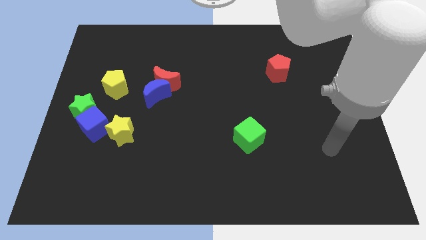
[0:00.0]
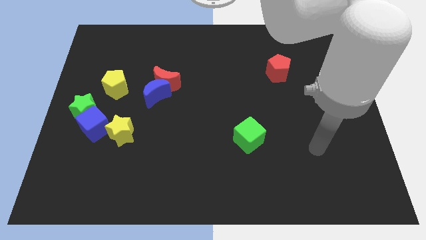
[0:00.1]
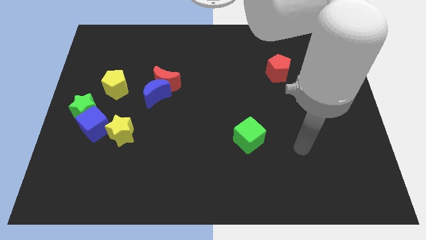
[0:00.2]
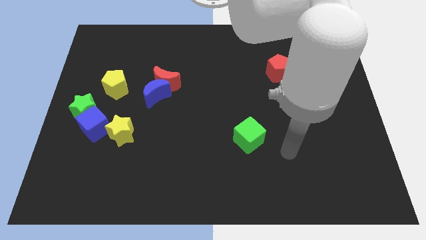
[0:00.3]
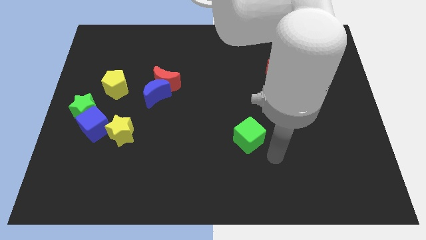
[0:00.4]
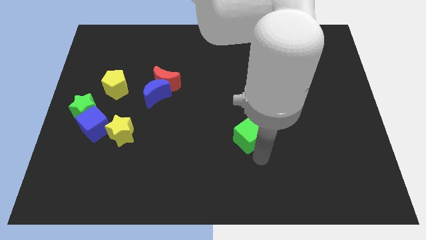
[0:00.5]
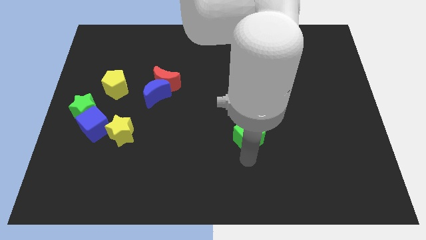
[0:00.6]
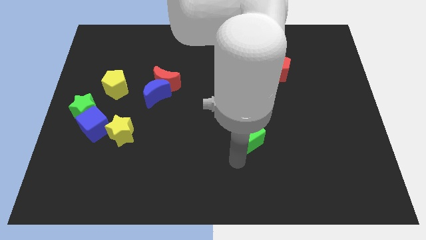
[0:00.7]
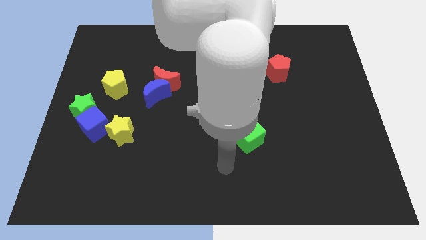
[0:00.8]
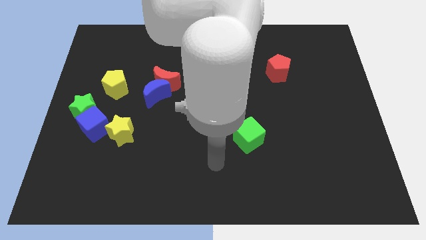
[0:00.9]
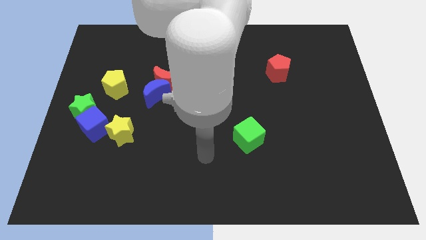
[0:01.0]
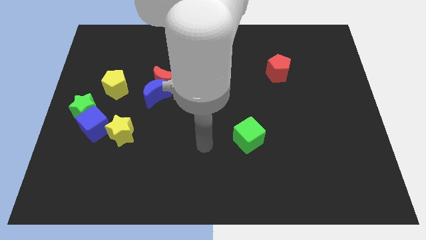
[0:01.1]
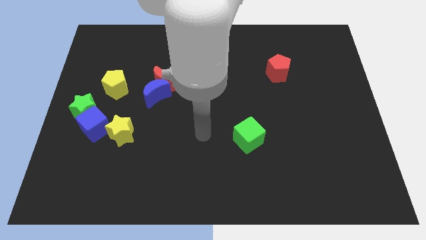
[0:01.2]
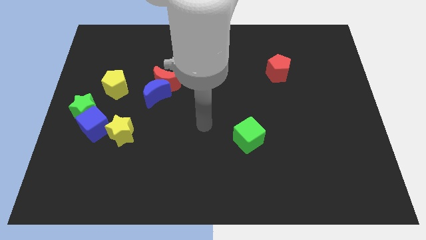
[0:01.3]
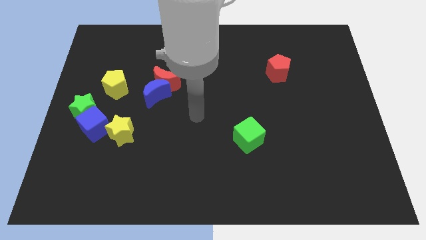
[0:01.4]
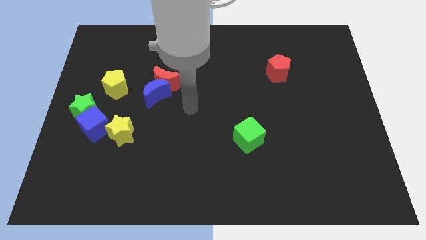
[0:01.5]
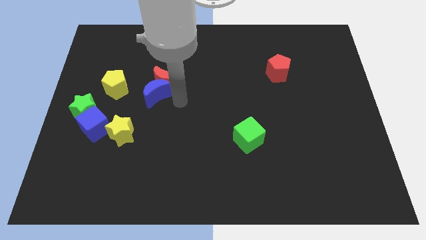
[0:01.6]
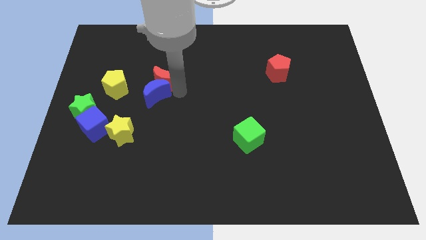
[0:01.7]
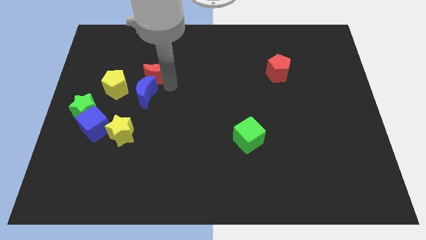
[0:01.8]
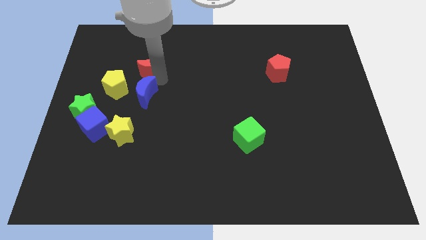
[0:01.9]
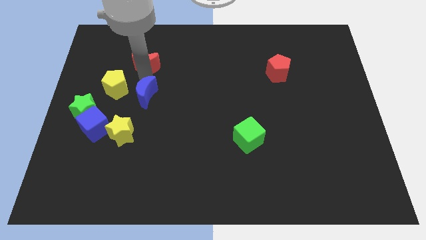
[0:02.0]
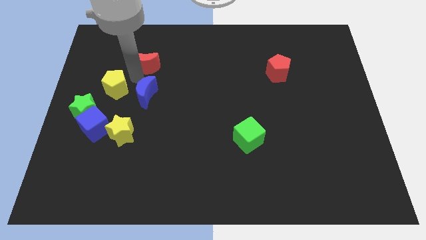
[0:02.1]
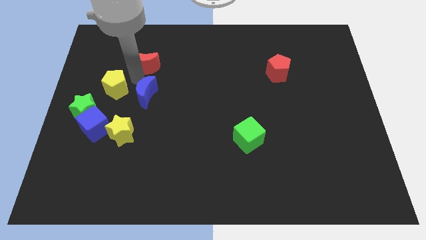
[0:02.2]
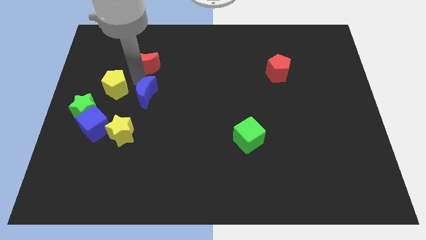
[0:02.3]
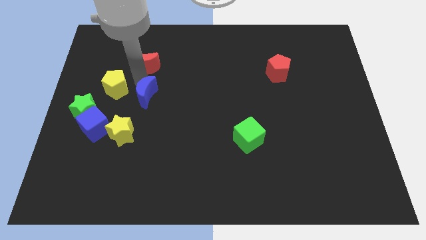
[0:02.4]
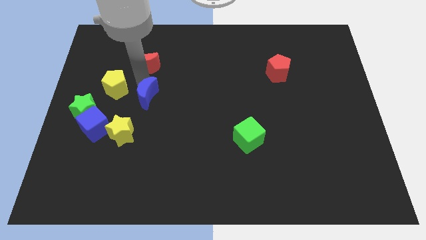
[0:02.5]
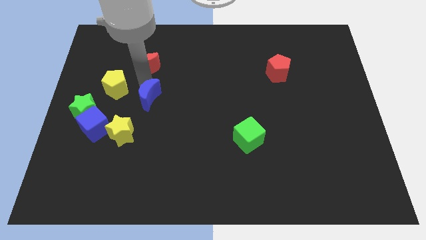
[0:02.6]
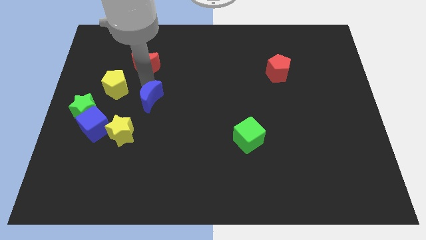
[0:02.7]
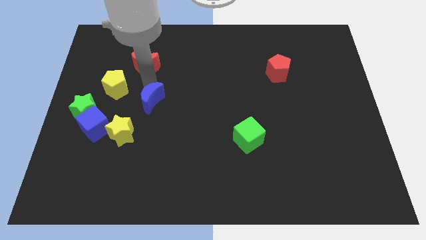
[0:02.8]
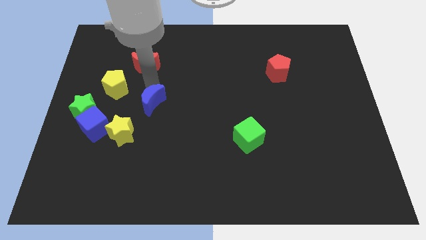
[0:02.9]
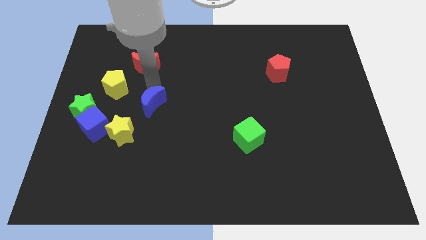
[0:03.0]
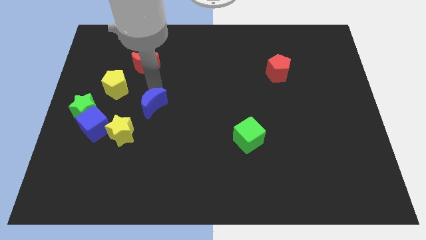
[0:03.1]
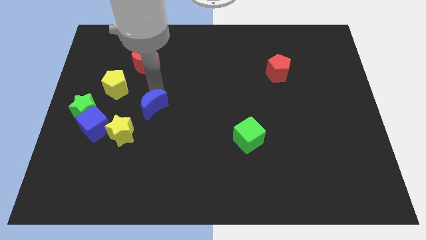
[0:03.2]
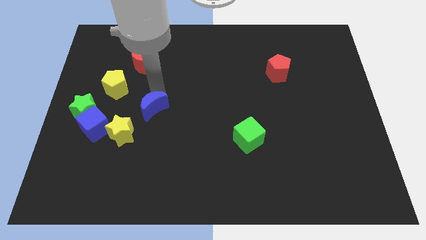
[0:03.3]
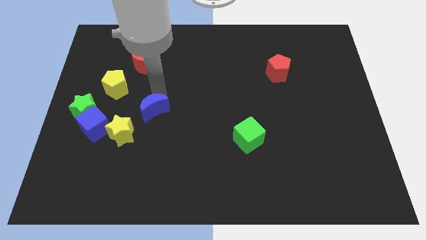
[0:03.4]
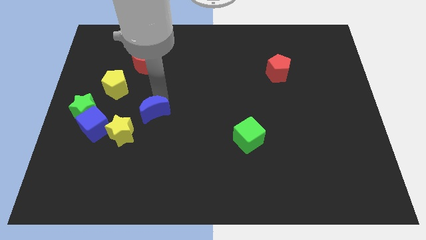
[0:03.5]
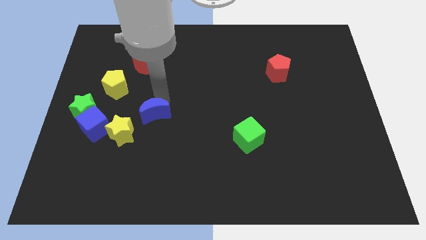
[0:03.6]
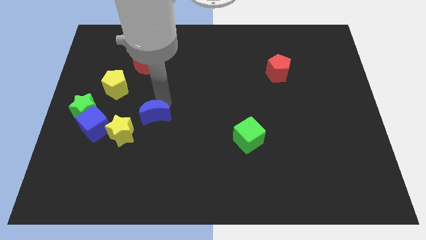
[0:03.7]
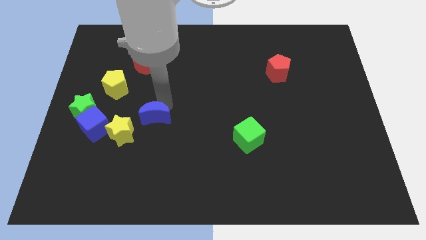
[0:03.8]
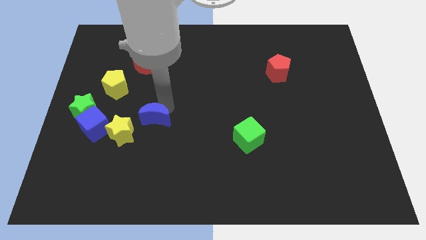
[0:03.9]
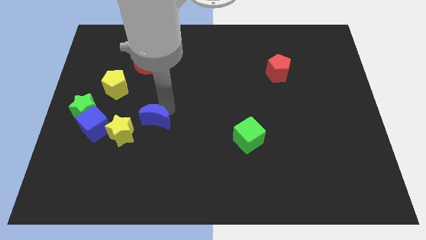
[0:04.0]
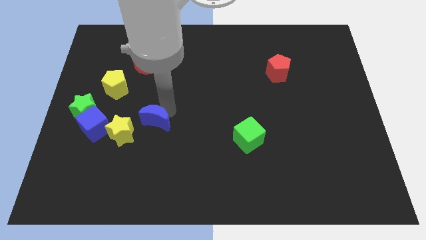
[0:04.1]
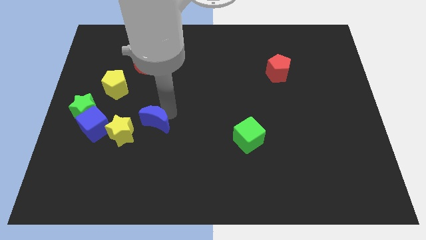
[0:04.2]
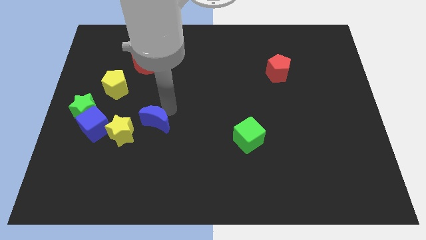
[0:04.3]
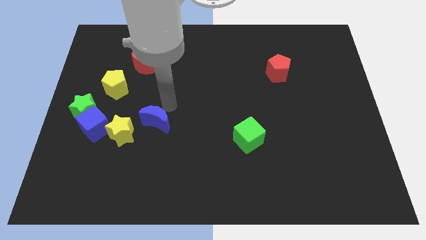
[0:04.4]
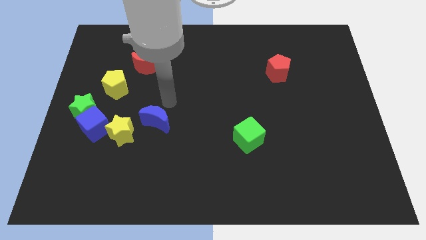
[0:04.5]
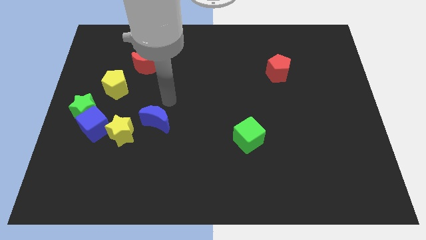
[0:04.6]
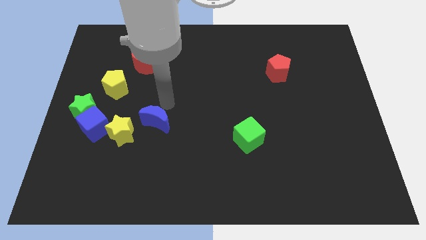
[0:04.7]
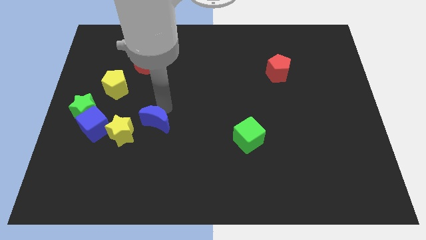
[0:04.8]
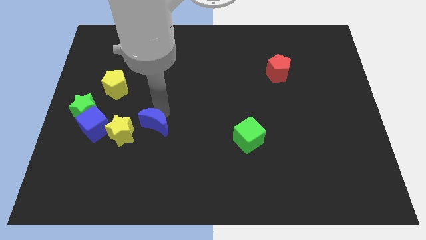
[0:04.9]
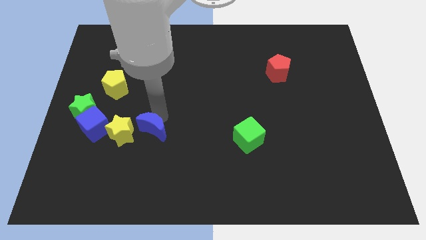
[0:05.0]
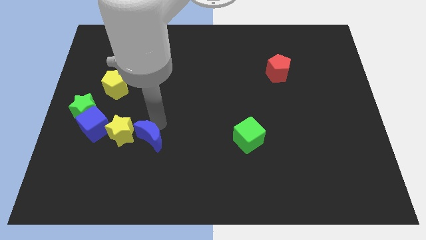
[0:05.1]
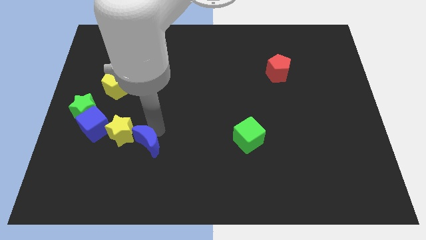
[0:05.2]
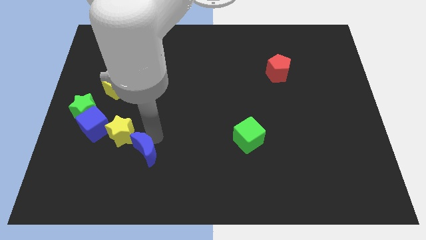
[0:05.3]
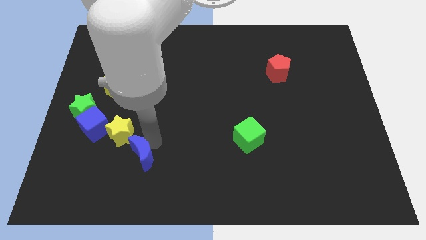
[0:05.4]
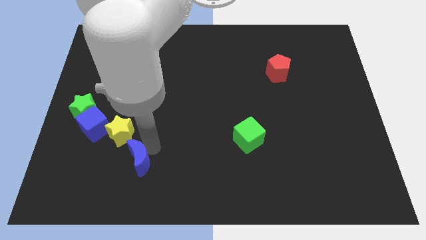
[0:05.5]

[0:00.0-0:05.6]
slide the blue moon down and to the left diagonally slightly

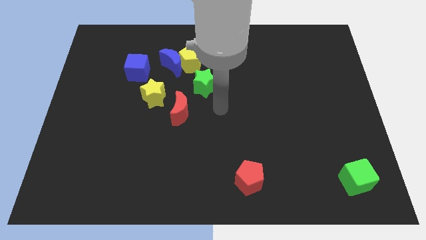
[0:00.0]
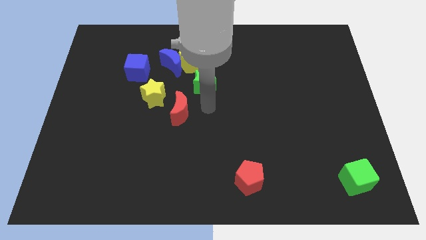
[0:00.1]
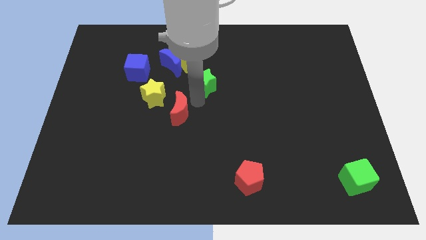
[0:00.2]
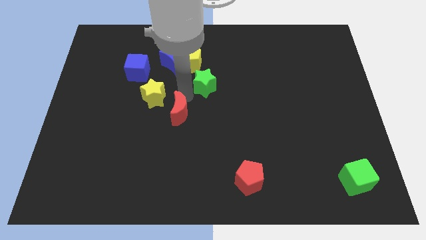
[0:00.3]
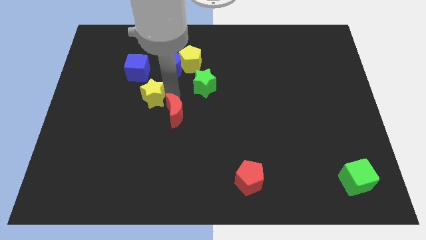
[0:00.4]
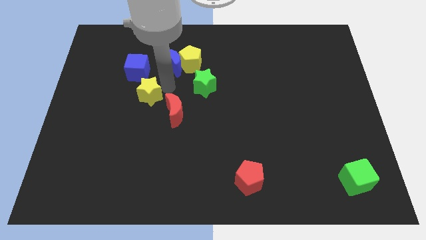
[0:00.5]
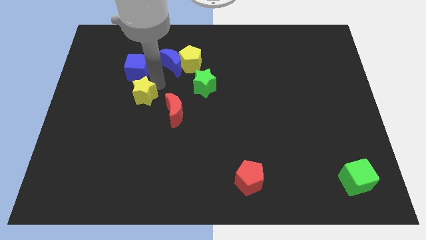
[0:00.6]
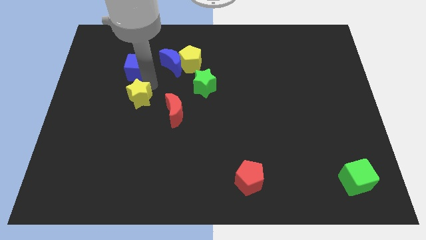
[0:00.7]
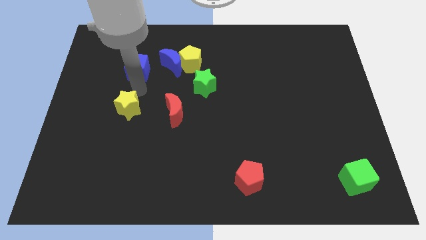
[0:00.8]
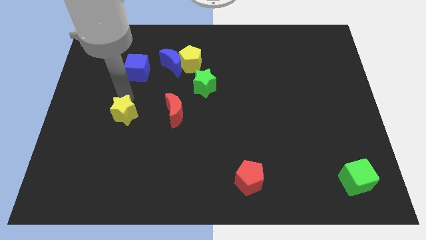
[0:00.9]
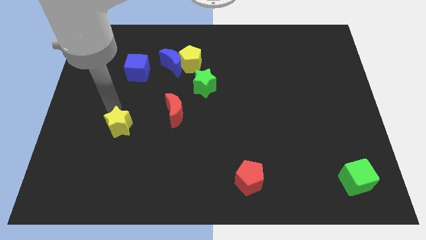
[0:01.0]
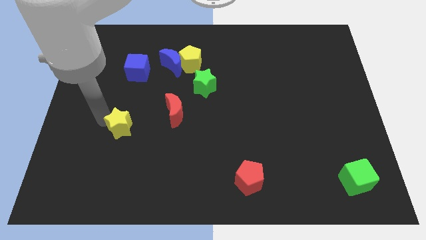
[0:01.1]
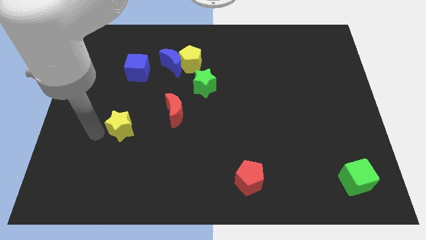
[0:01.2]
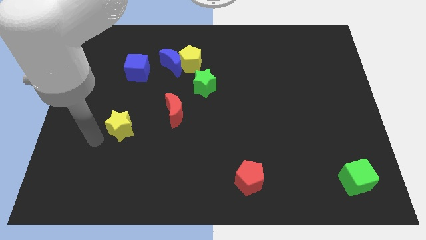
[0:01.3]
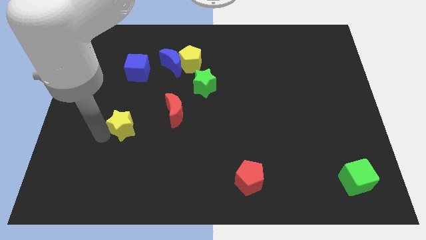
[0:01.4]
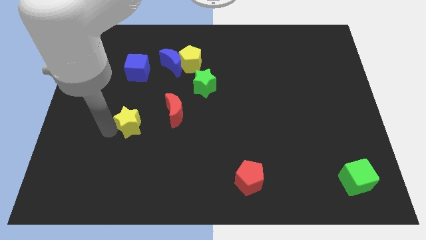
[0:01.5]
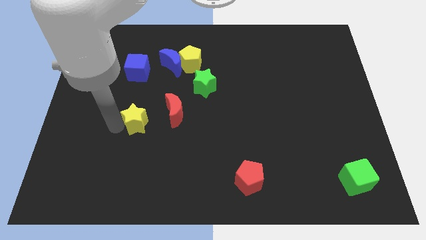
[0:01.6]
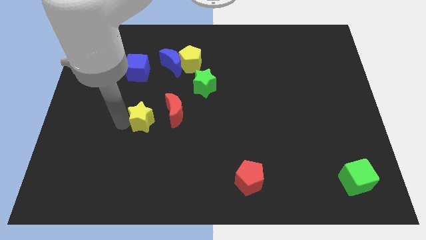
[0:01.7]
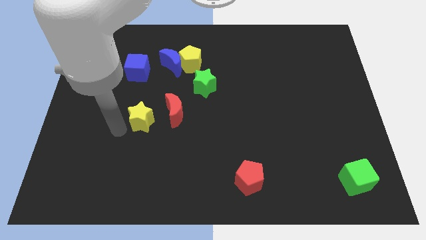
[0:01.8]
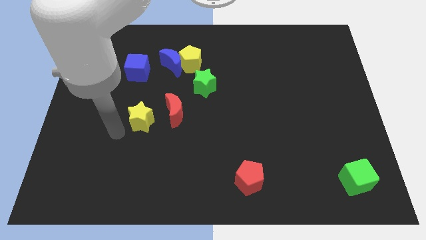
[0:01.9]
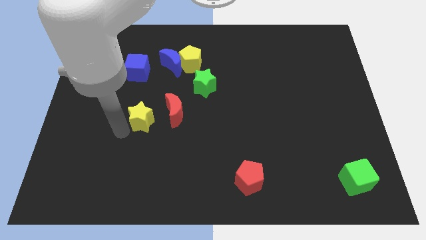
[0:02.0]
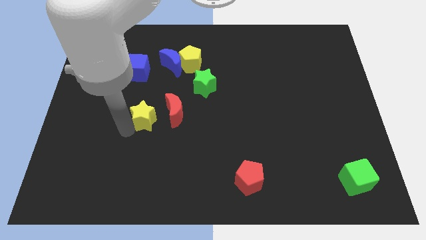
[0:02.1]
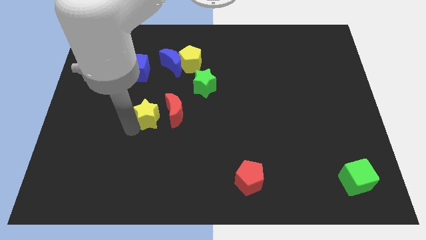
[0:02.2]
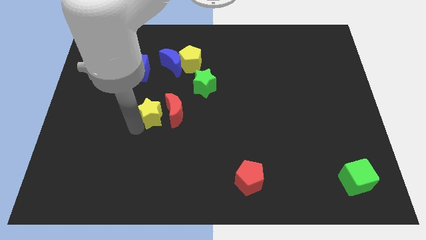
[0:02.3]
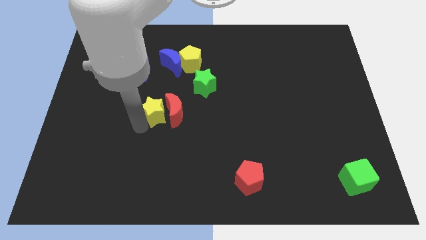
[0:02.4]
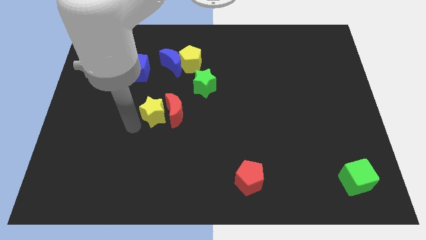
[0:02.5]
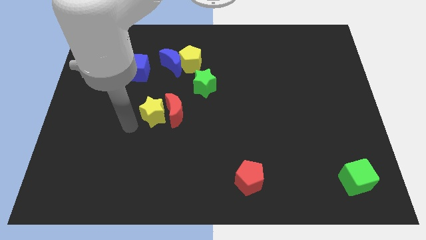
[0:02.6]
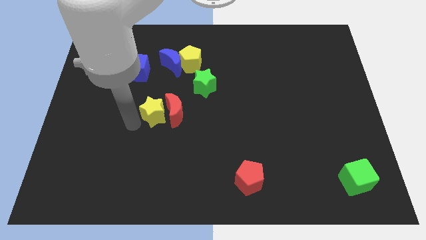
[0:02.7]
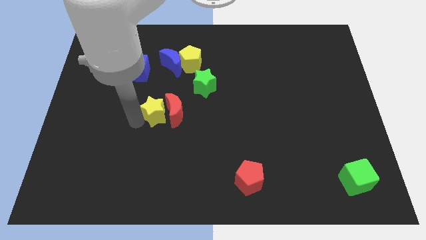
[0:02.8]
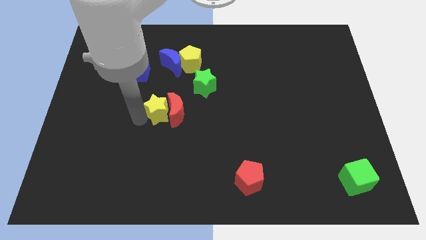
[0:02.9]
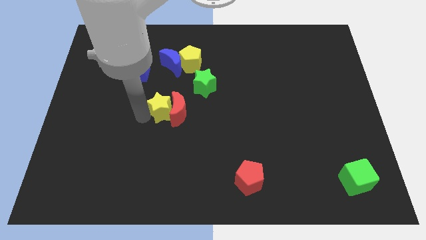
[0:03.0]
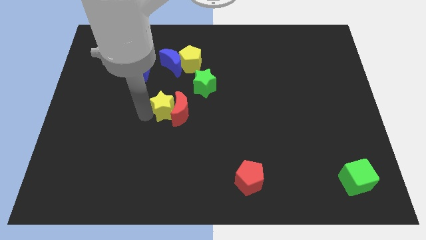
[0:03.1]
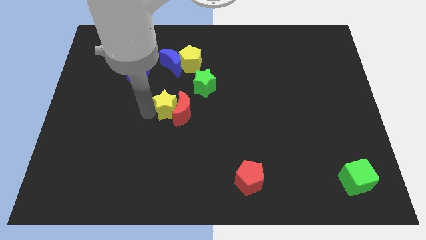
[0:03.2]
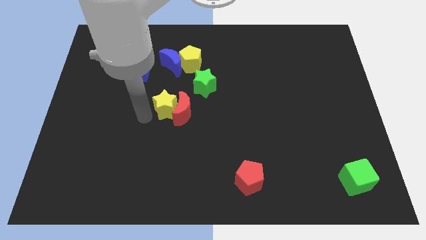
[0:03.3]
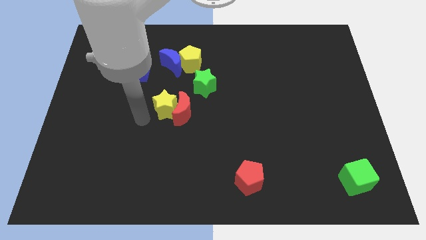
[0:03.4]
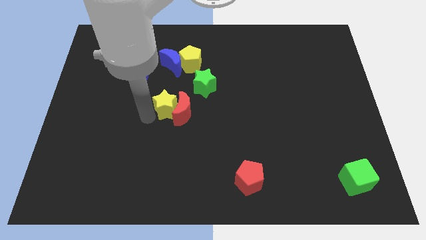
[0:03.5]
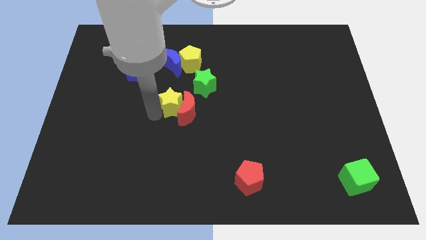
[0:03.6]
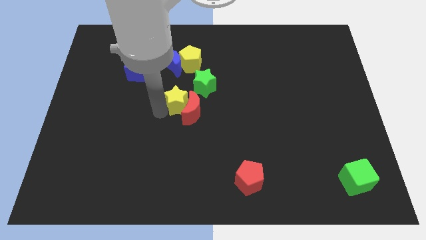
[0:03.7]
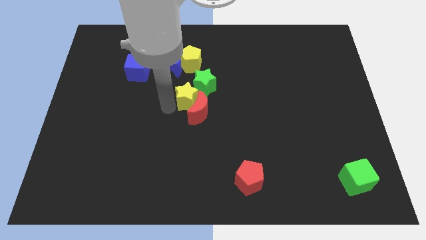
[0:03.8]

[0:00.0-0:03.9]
move the yellow star to the right a little
